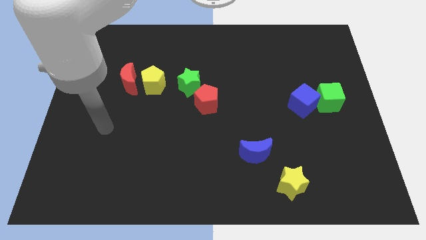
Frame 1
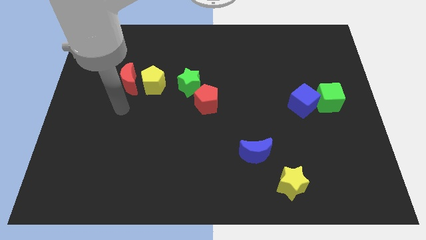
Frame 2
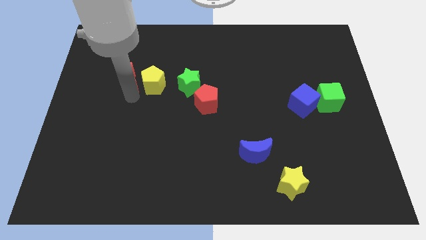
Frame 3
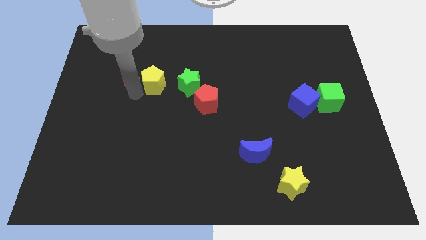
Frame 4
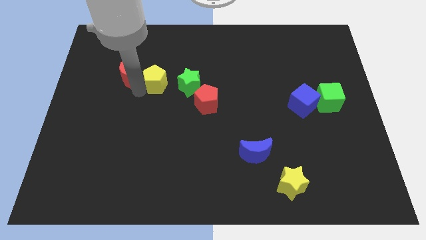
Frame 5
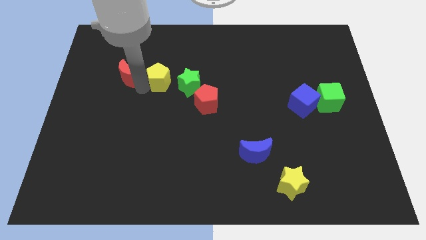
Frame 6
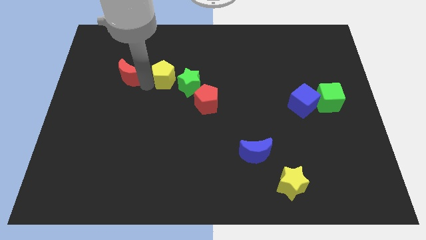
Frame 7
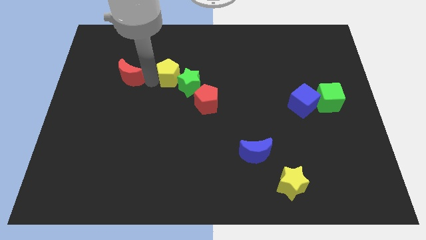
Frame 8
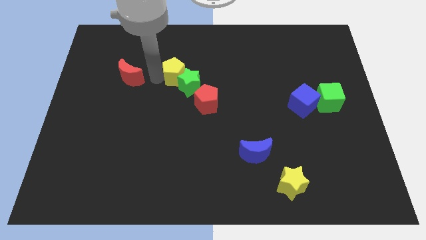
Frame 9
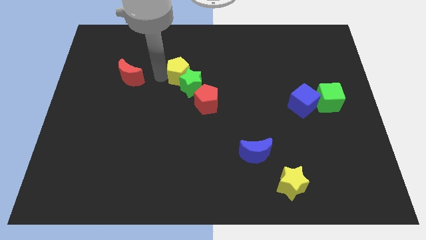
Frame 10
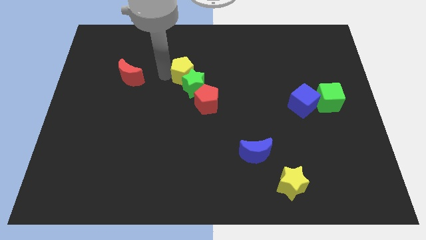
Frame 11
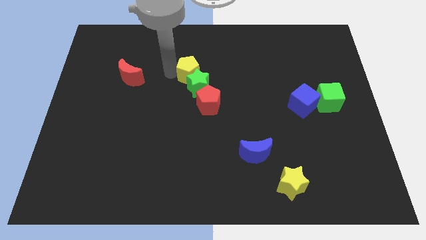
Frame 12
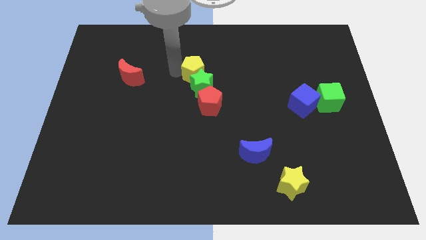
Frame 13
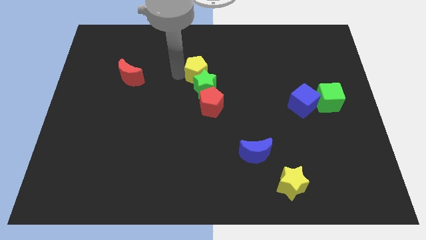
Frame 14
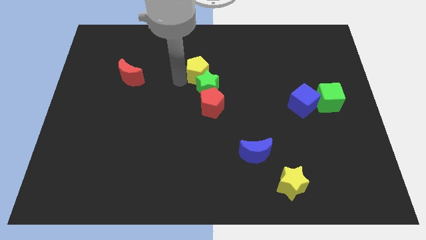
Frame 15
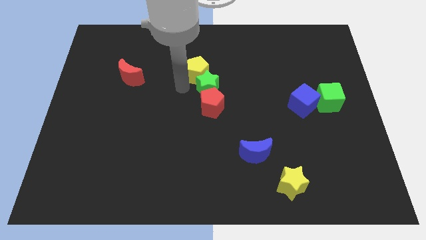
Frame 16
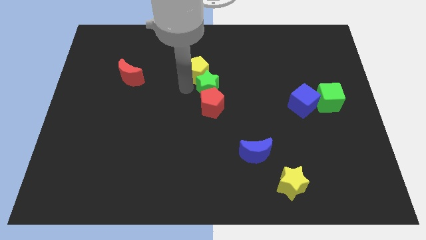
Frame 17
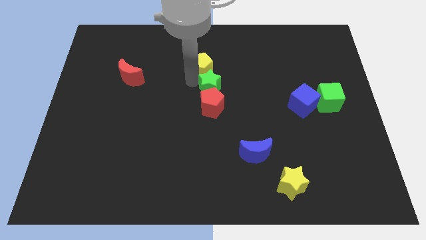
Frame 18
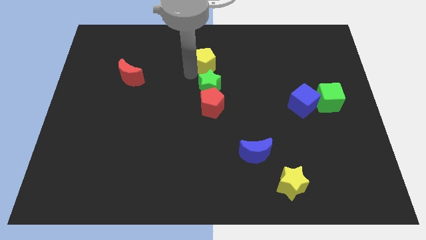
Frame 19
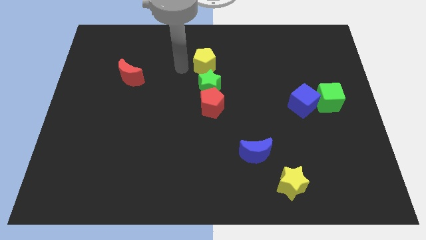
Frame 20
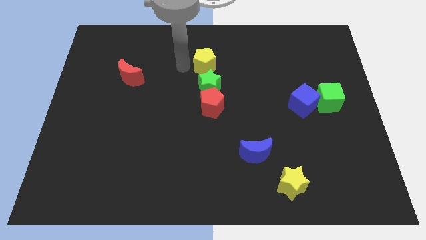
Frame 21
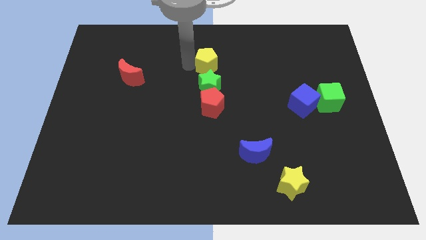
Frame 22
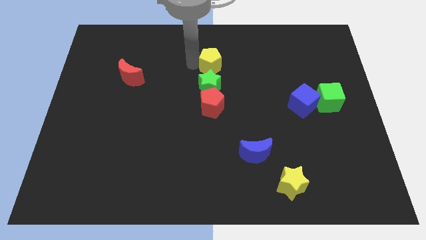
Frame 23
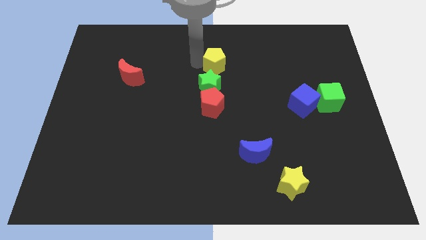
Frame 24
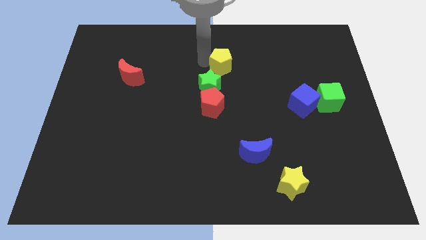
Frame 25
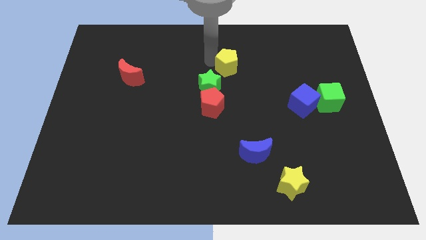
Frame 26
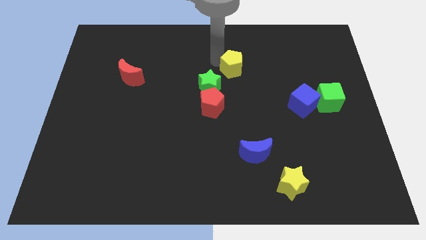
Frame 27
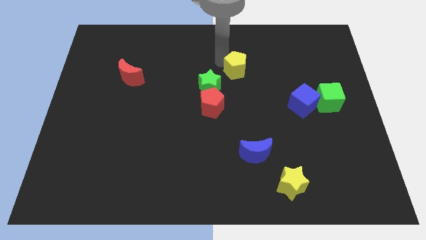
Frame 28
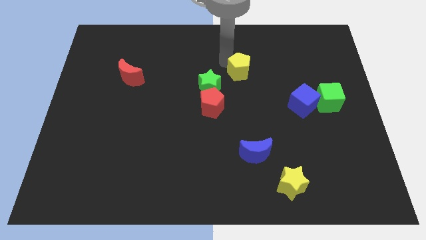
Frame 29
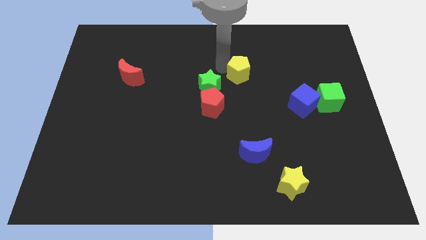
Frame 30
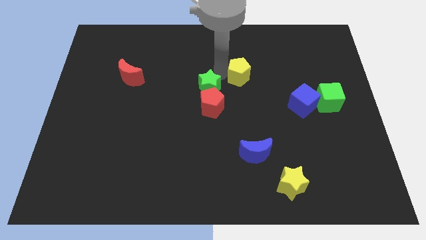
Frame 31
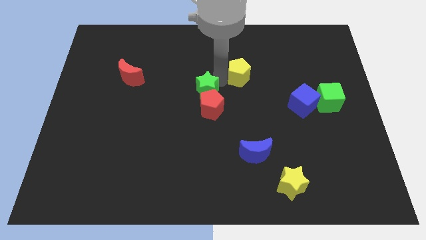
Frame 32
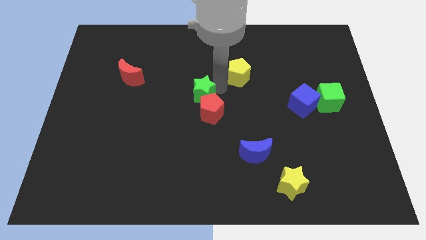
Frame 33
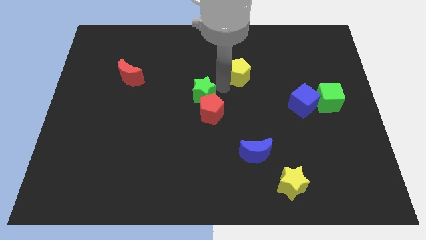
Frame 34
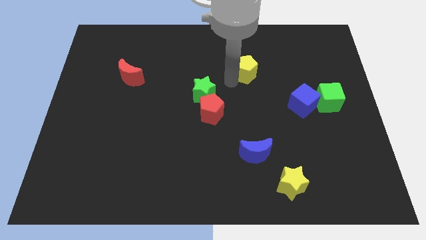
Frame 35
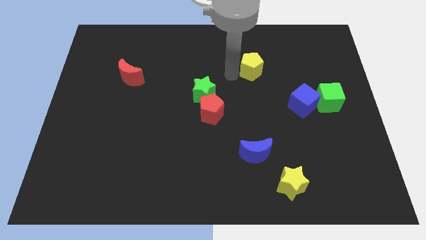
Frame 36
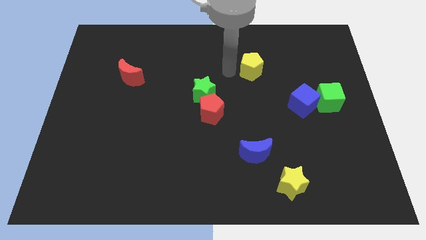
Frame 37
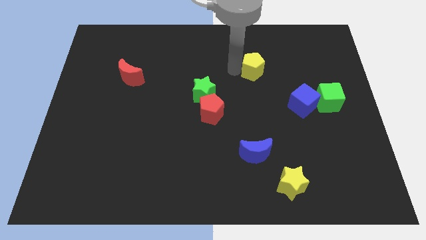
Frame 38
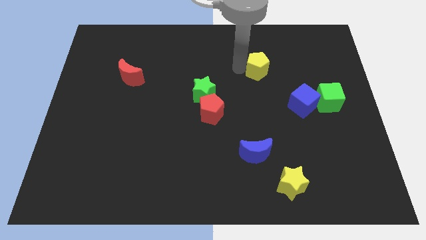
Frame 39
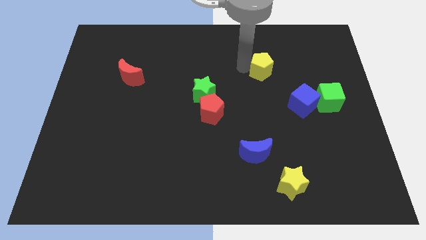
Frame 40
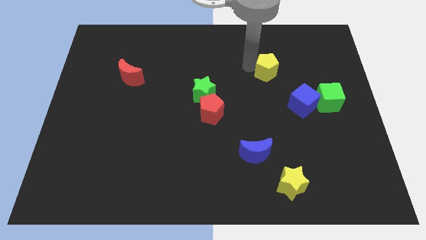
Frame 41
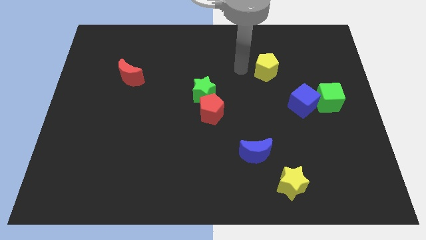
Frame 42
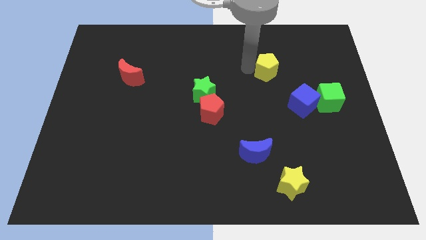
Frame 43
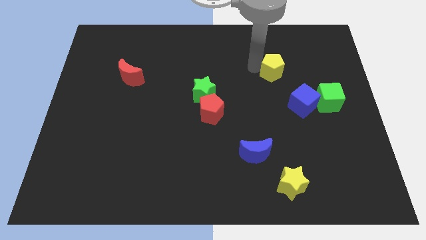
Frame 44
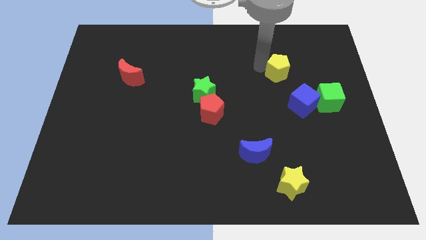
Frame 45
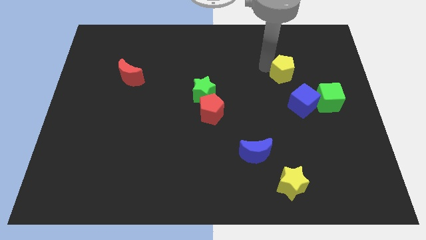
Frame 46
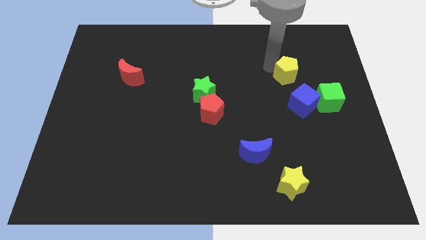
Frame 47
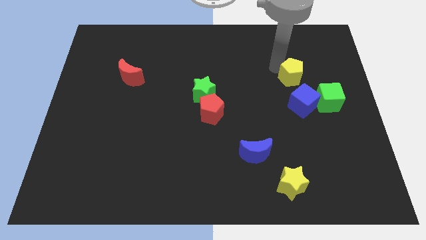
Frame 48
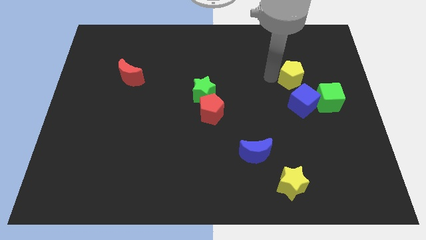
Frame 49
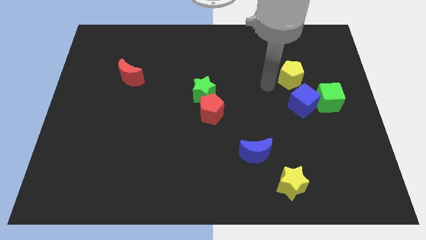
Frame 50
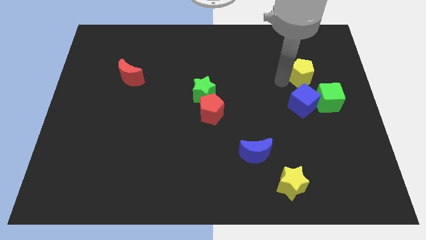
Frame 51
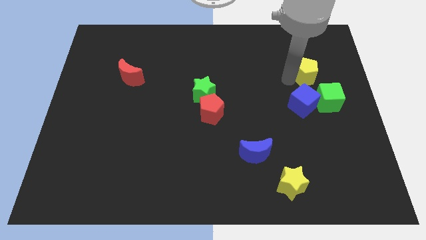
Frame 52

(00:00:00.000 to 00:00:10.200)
slide the yellow pentagon above the green cube

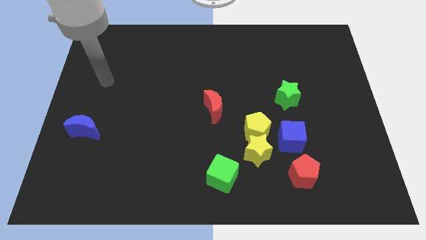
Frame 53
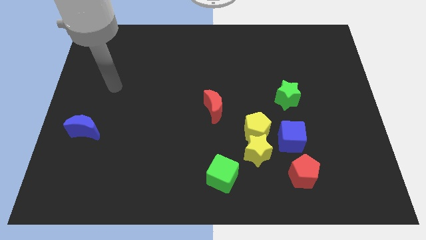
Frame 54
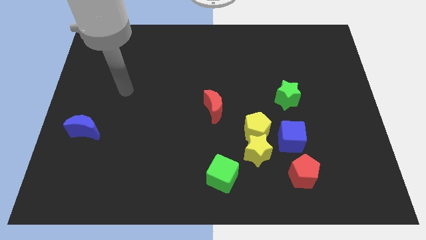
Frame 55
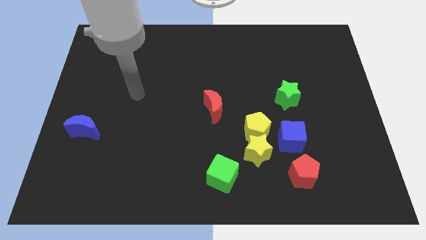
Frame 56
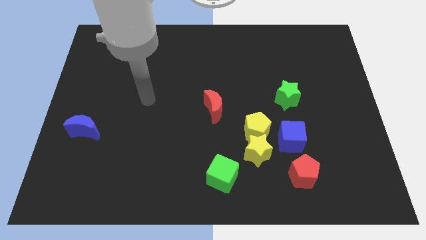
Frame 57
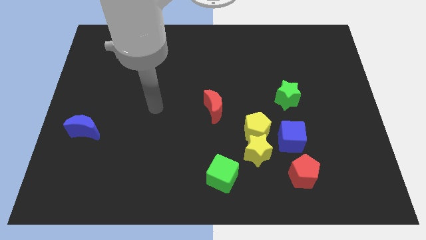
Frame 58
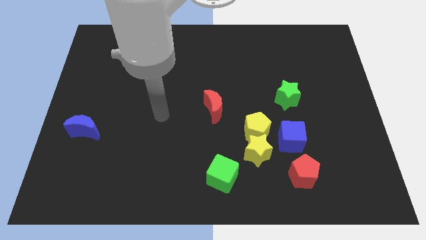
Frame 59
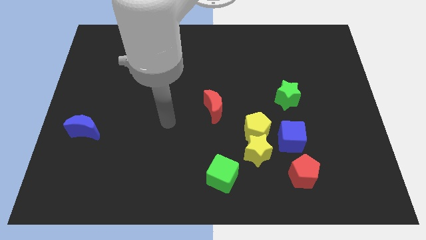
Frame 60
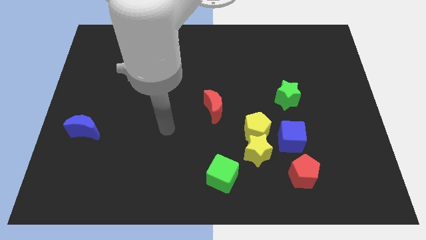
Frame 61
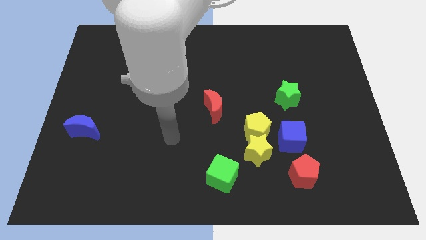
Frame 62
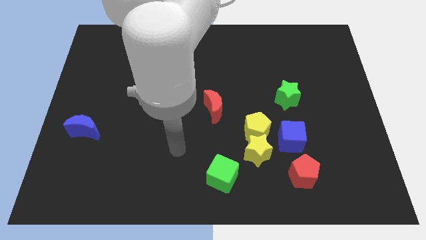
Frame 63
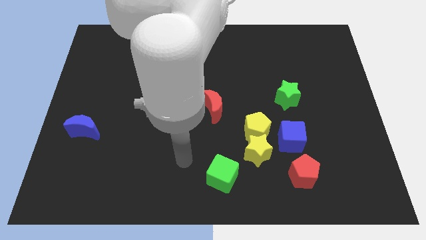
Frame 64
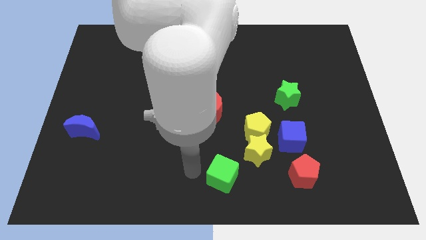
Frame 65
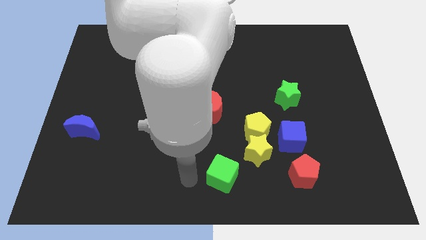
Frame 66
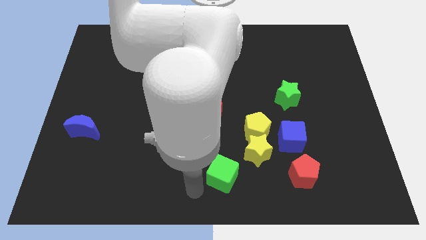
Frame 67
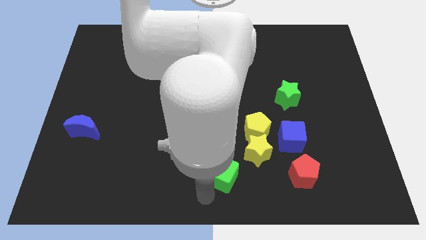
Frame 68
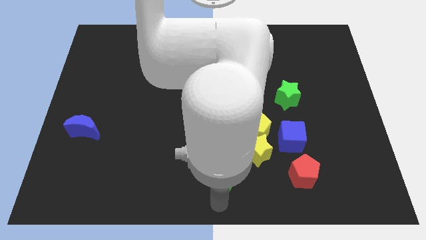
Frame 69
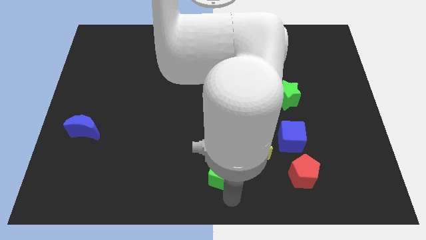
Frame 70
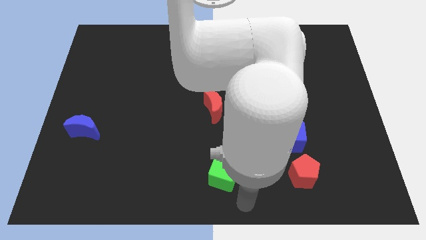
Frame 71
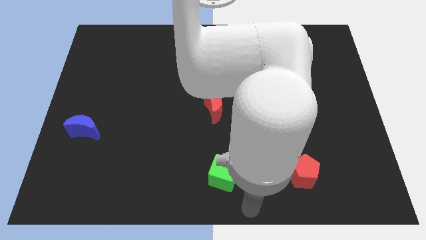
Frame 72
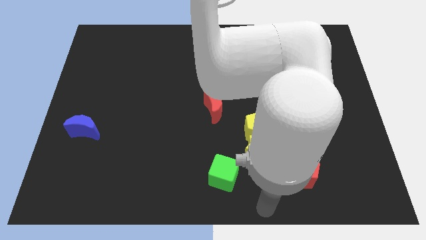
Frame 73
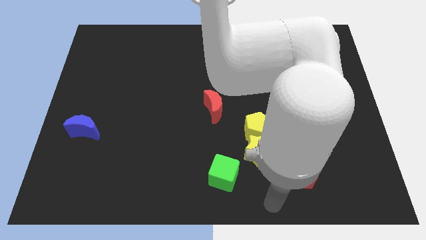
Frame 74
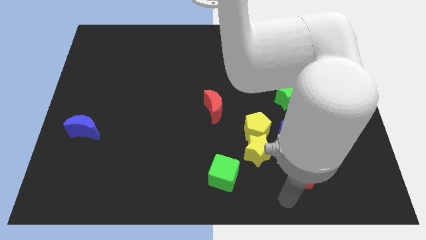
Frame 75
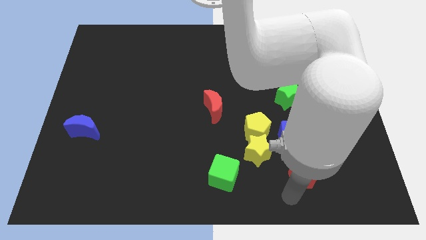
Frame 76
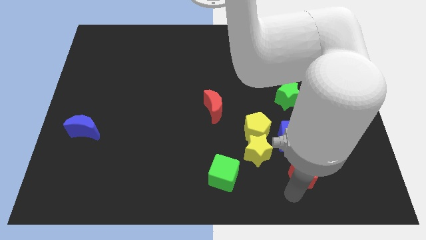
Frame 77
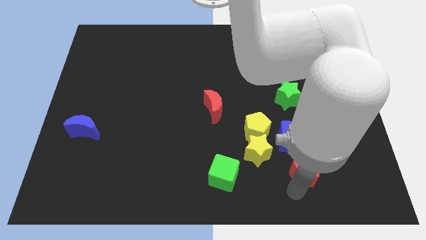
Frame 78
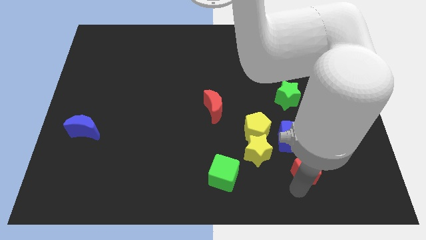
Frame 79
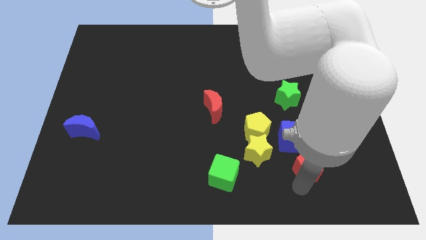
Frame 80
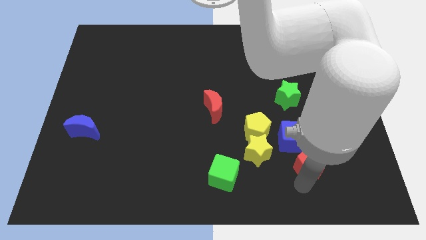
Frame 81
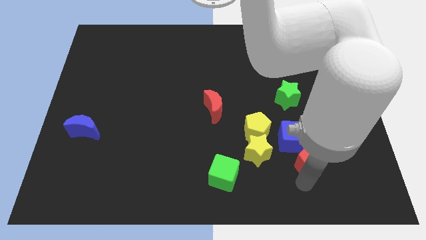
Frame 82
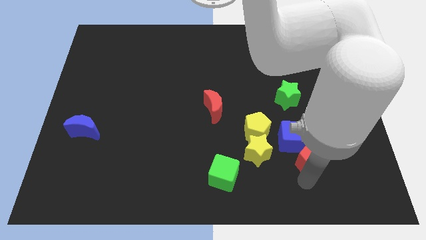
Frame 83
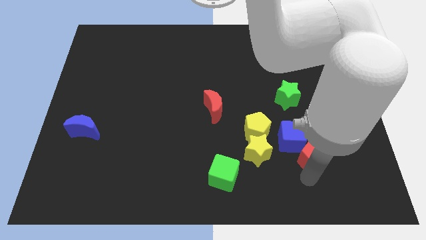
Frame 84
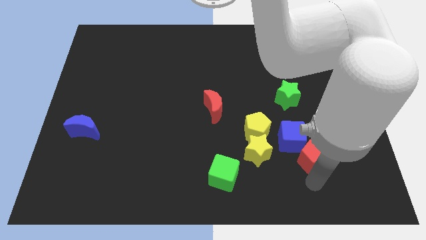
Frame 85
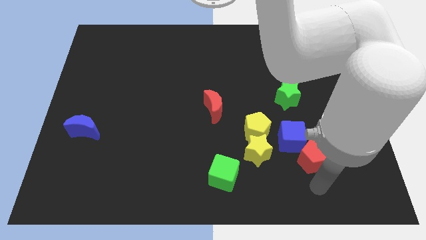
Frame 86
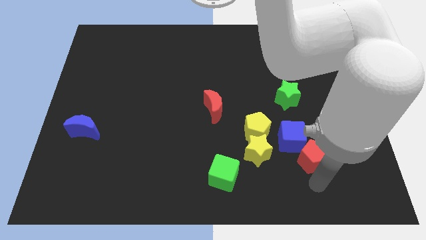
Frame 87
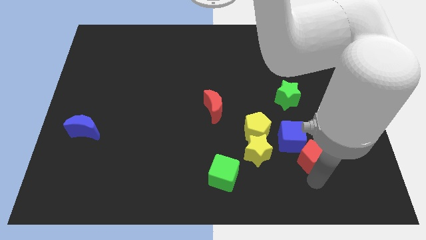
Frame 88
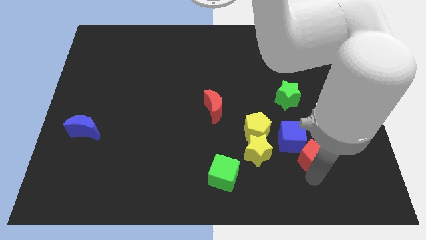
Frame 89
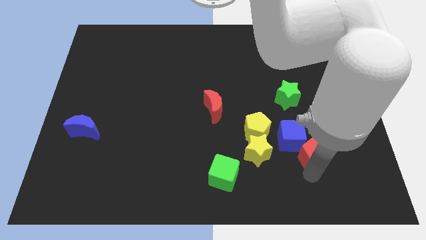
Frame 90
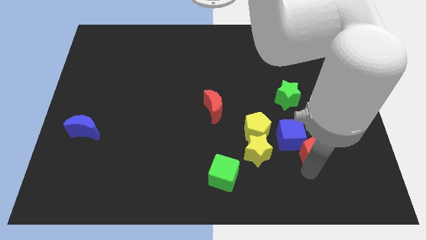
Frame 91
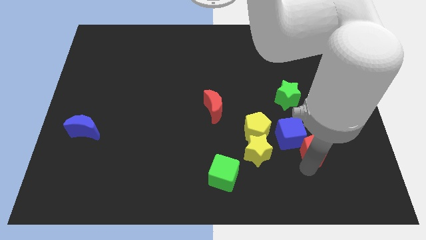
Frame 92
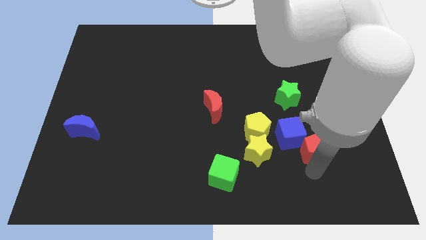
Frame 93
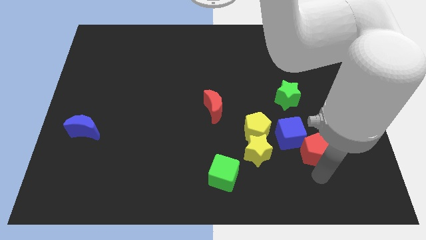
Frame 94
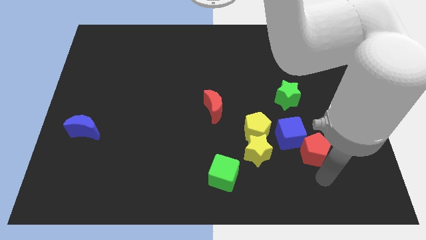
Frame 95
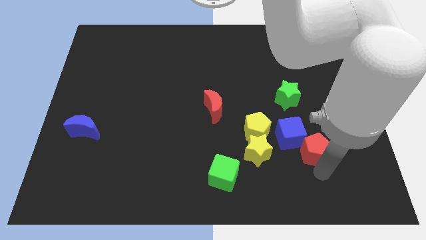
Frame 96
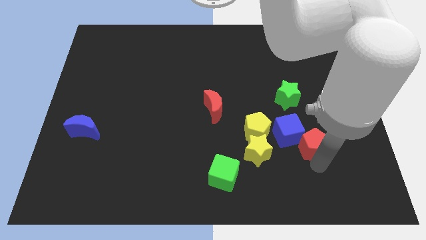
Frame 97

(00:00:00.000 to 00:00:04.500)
push the red pentagon right of the yellow pentagon
